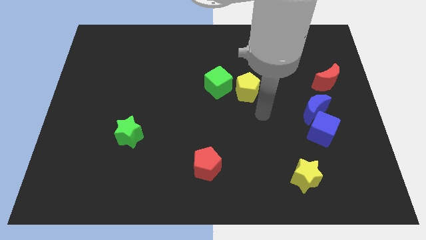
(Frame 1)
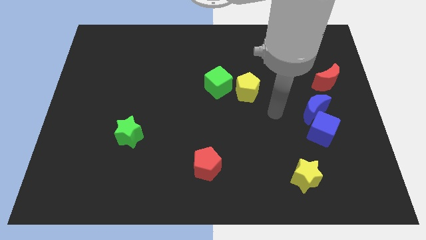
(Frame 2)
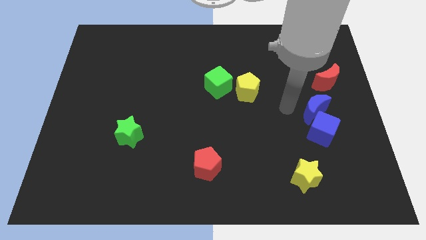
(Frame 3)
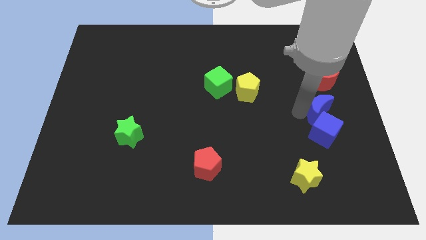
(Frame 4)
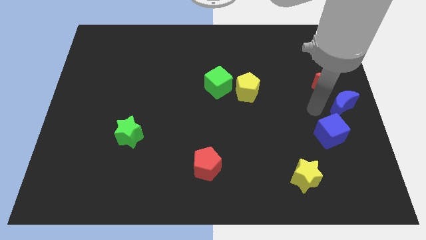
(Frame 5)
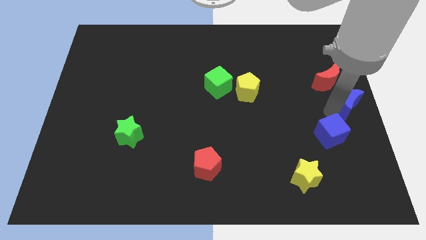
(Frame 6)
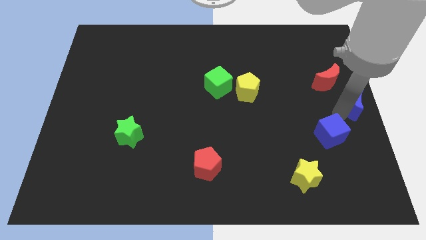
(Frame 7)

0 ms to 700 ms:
pull the blue cube apart from the blue moon

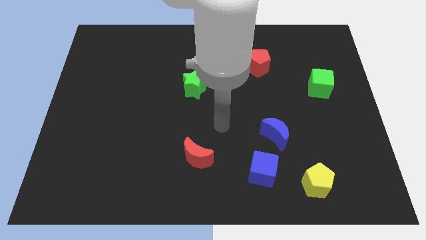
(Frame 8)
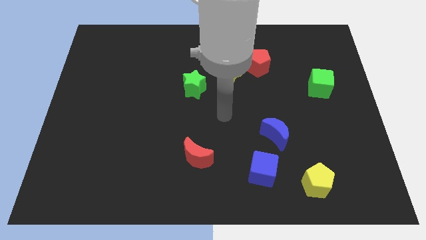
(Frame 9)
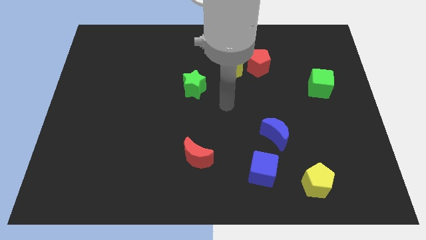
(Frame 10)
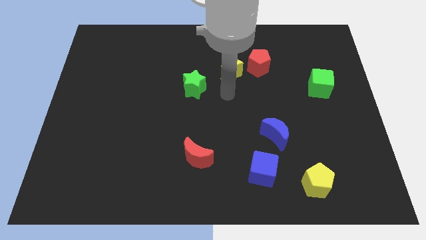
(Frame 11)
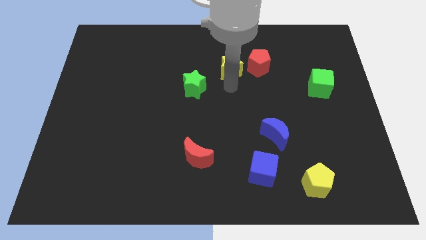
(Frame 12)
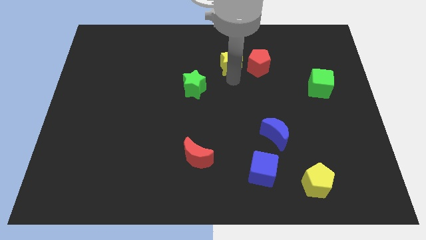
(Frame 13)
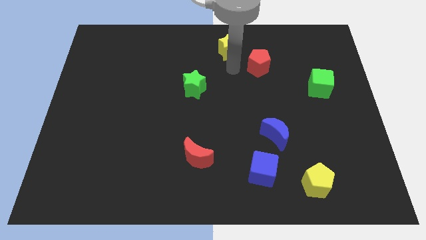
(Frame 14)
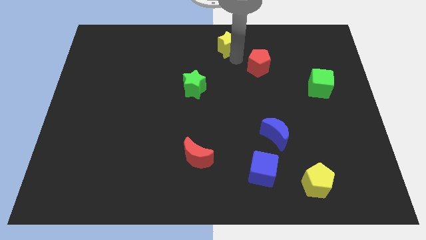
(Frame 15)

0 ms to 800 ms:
move the red pentagon away from the yellow star

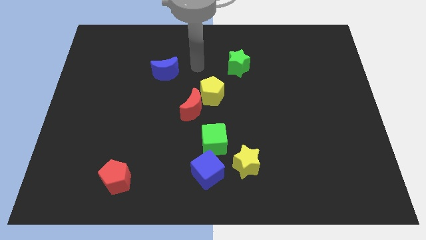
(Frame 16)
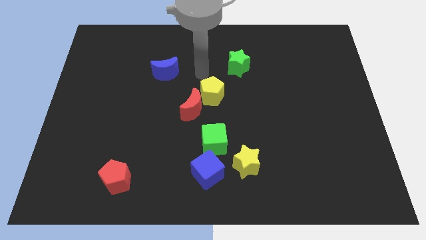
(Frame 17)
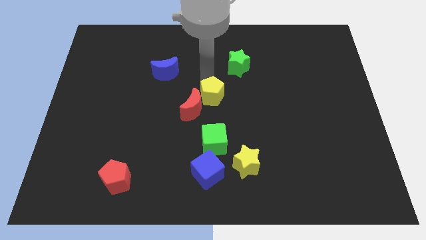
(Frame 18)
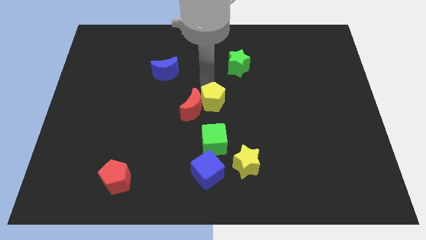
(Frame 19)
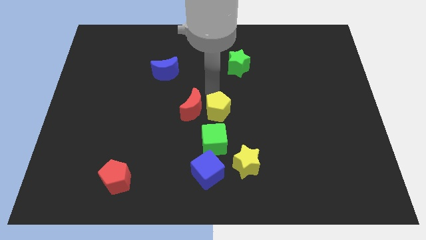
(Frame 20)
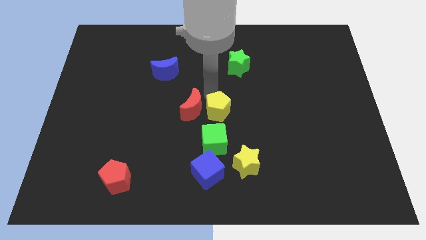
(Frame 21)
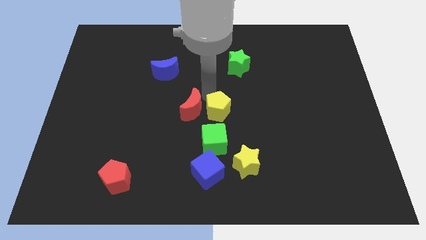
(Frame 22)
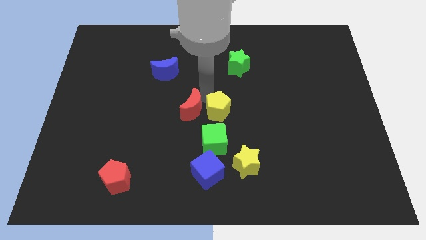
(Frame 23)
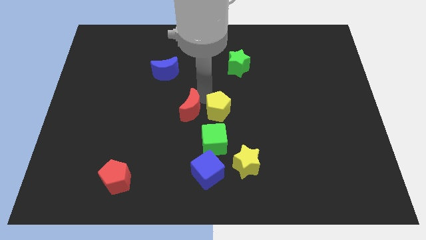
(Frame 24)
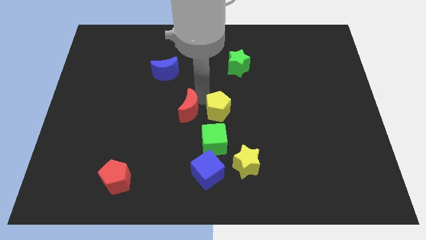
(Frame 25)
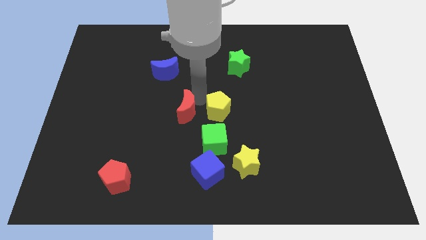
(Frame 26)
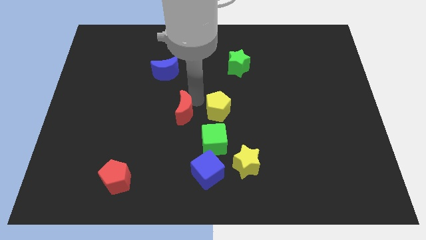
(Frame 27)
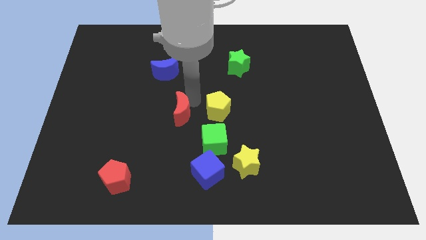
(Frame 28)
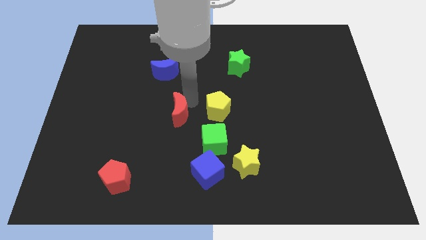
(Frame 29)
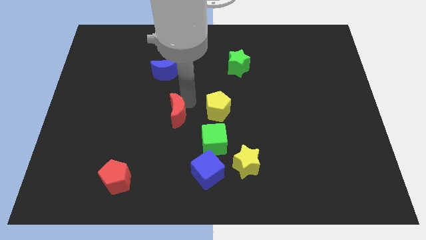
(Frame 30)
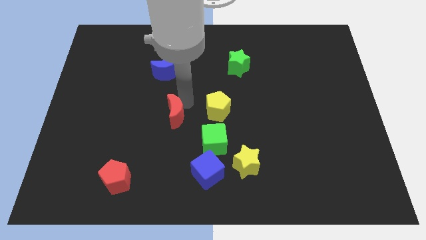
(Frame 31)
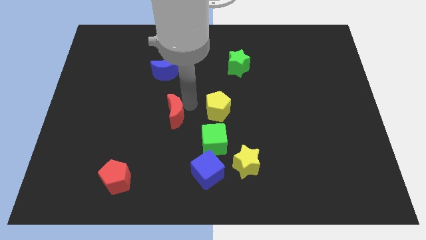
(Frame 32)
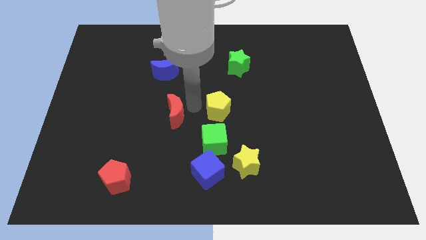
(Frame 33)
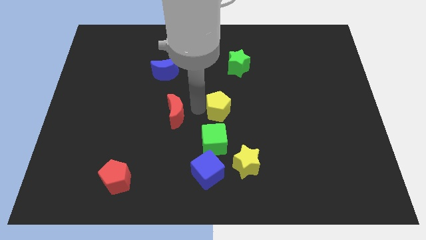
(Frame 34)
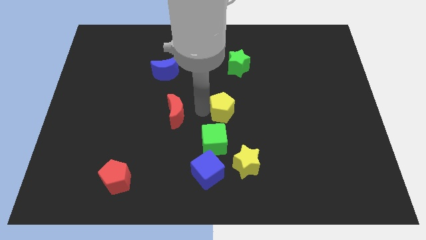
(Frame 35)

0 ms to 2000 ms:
move the red moon away from the yellow pentagon

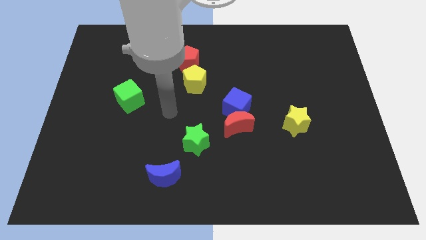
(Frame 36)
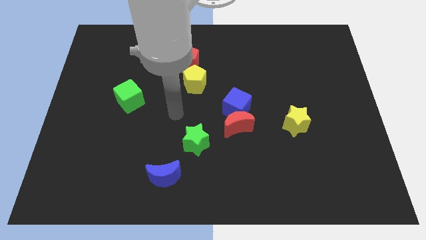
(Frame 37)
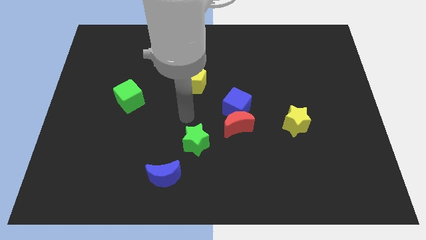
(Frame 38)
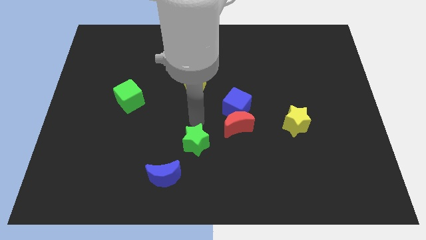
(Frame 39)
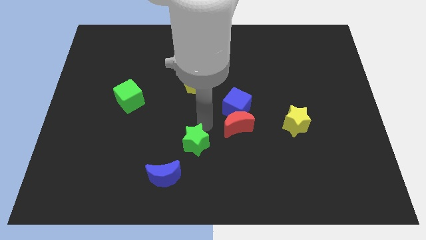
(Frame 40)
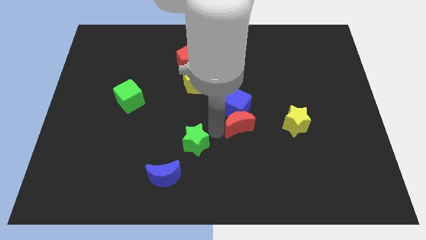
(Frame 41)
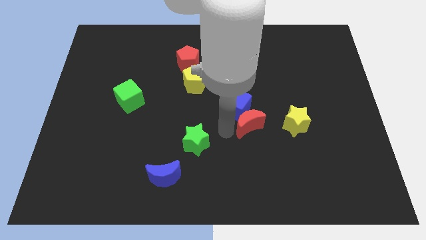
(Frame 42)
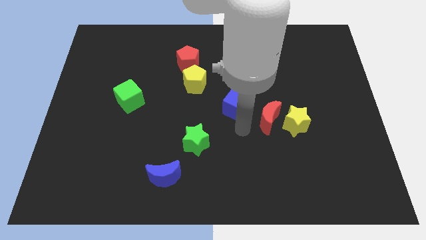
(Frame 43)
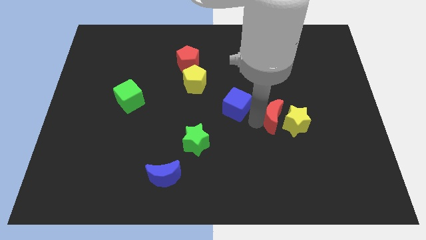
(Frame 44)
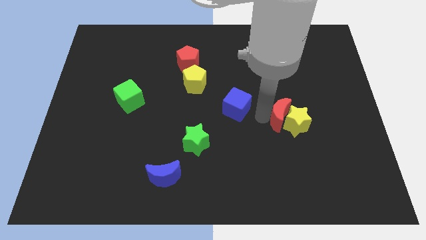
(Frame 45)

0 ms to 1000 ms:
pull the blue cube apart from the red moon

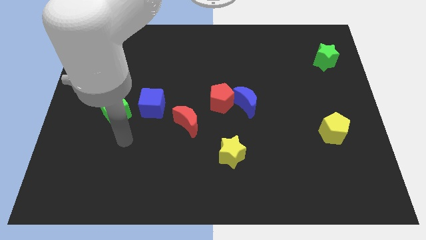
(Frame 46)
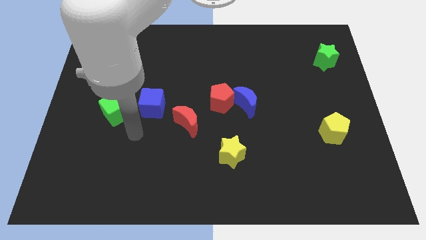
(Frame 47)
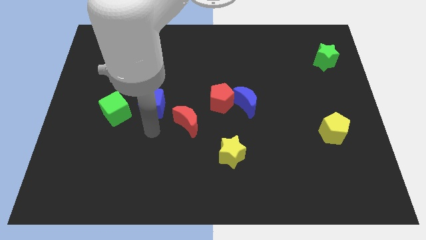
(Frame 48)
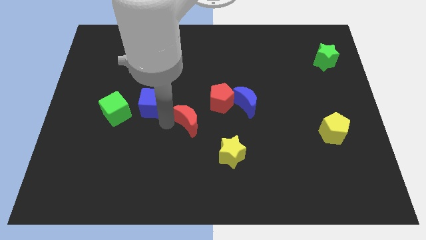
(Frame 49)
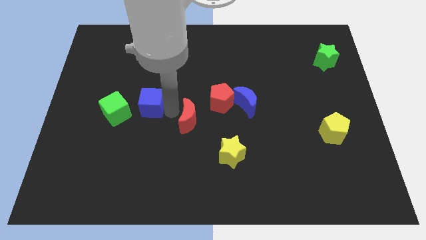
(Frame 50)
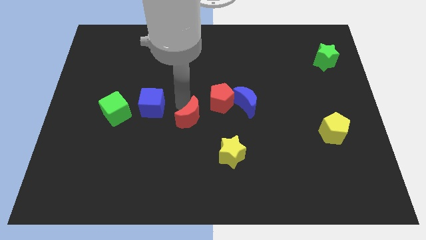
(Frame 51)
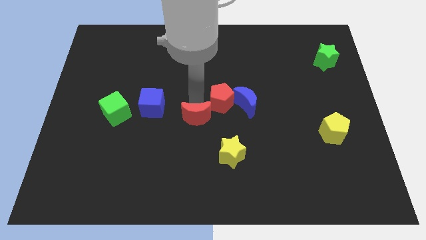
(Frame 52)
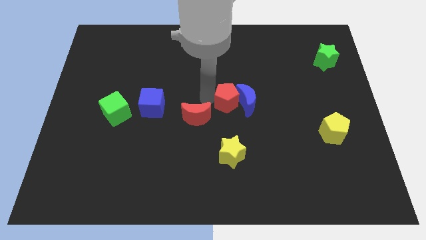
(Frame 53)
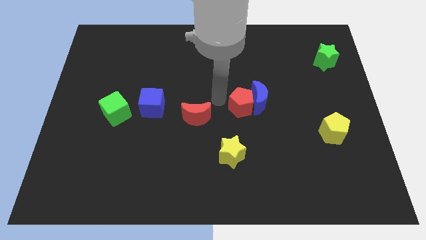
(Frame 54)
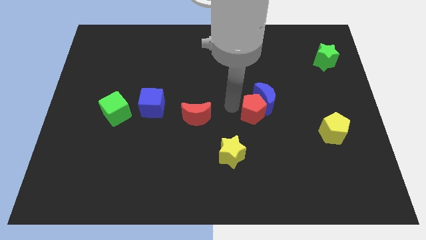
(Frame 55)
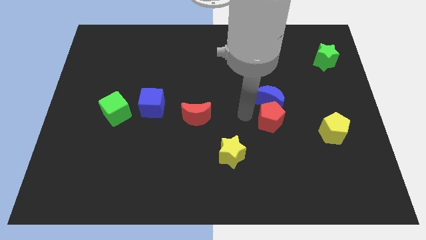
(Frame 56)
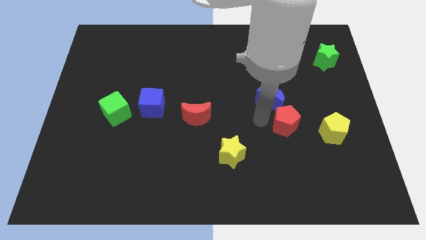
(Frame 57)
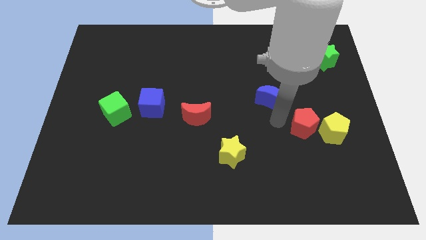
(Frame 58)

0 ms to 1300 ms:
pull the blue moon apart from the red pentagon

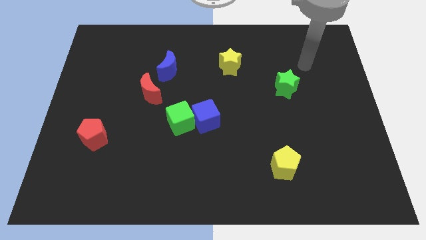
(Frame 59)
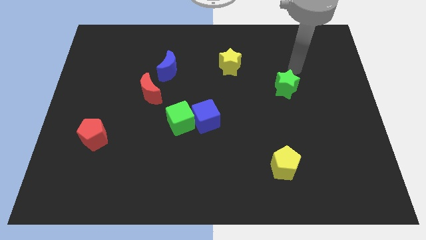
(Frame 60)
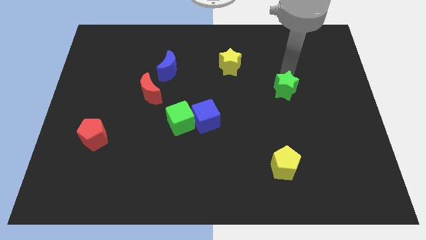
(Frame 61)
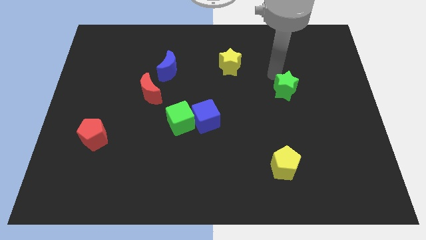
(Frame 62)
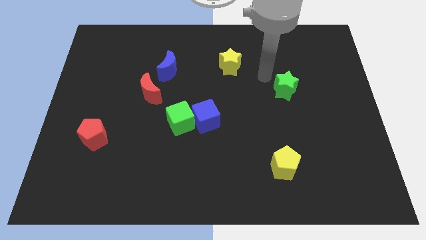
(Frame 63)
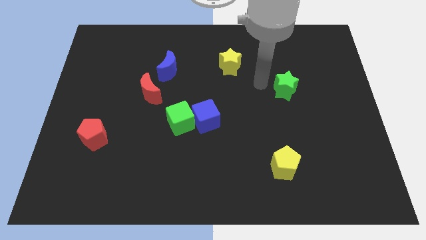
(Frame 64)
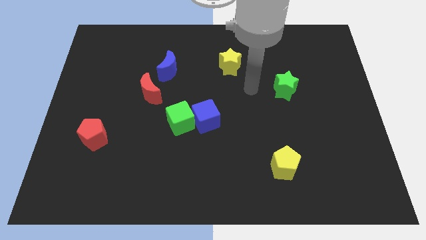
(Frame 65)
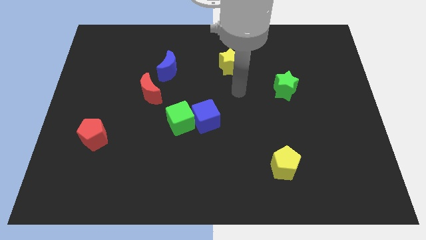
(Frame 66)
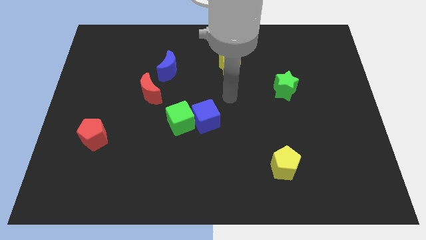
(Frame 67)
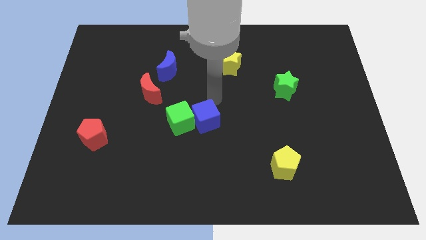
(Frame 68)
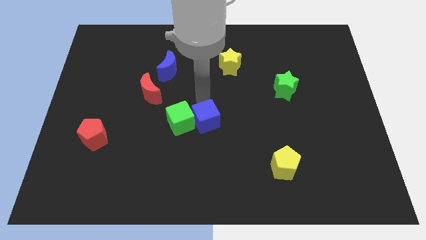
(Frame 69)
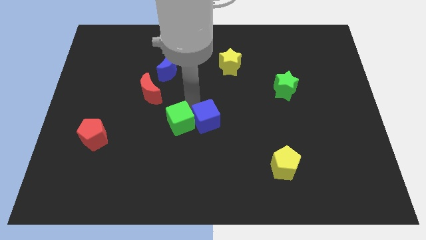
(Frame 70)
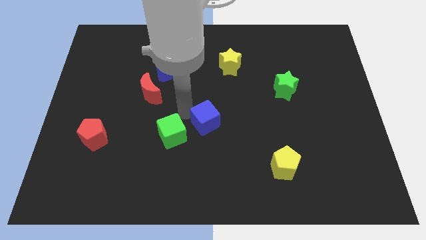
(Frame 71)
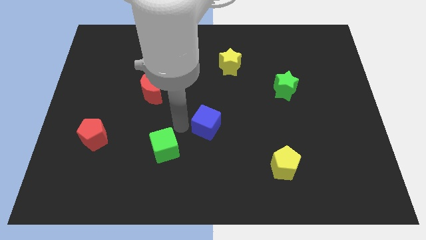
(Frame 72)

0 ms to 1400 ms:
move the blue cube away from the green cube

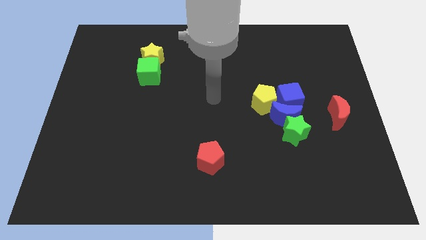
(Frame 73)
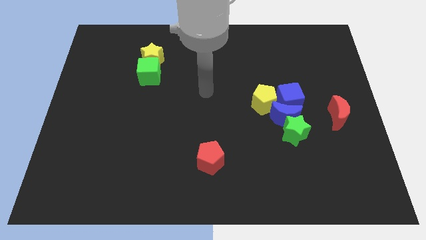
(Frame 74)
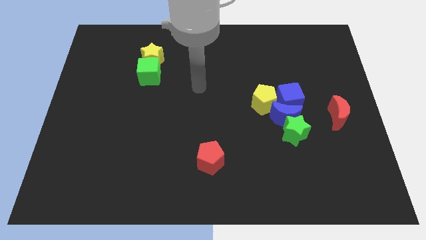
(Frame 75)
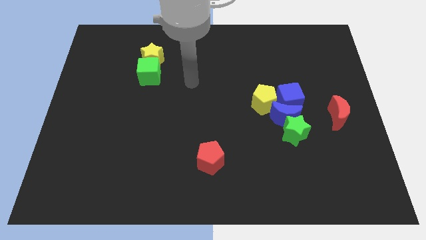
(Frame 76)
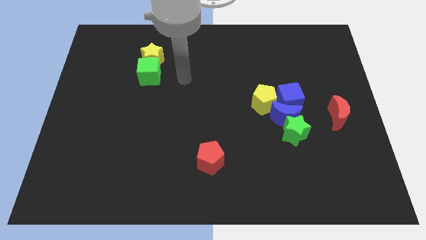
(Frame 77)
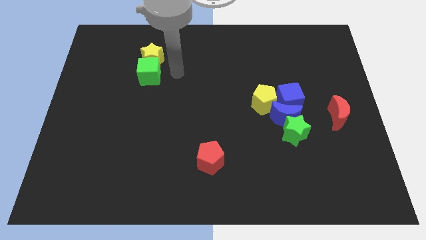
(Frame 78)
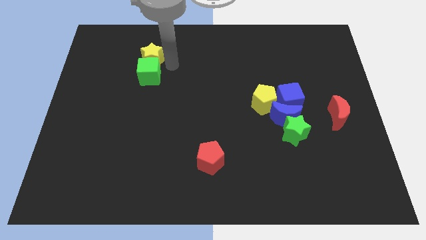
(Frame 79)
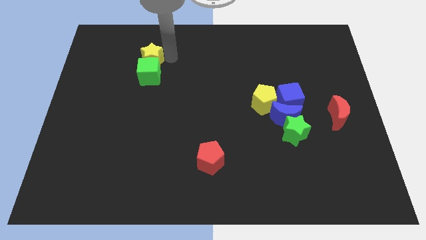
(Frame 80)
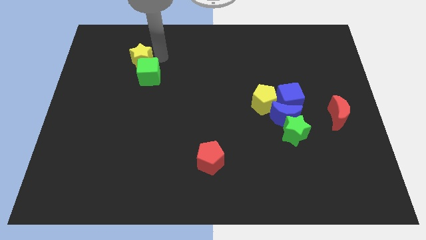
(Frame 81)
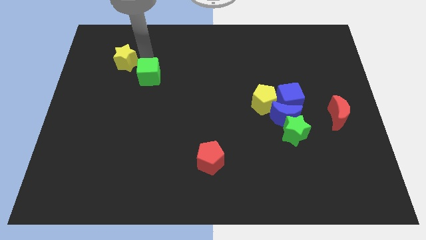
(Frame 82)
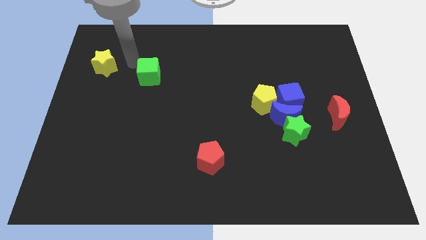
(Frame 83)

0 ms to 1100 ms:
pull the green cube apart from the yellow star

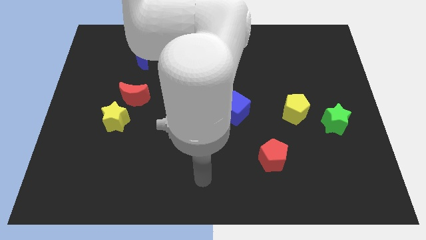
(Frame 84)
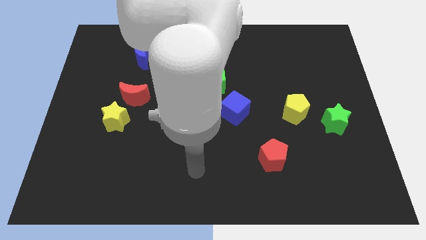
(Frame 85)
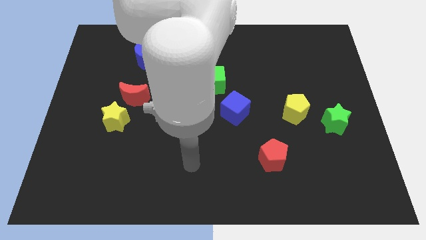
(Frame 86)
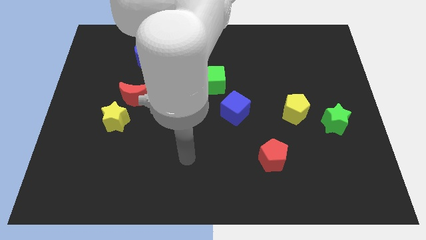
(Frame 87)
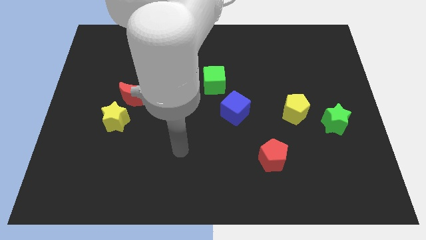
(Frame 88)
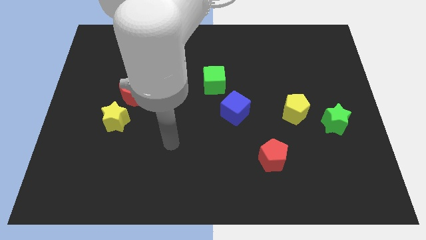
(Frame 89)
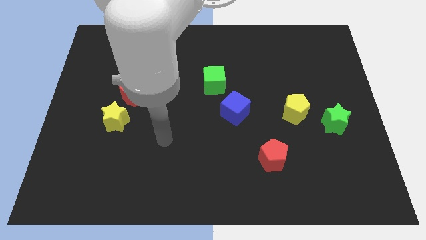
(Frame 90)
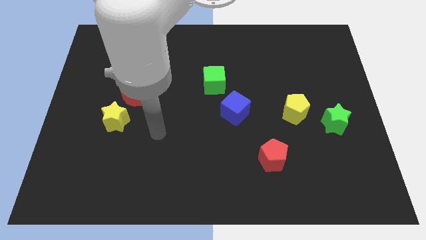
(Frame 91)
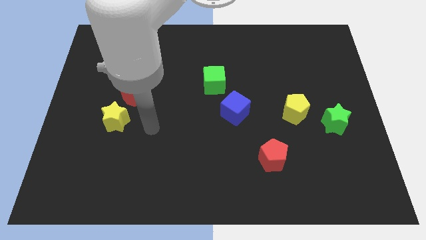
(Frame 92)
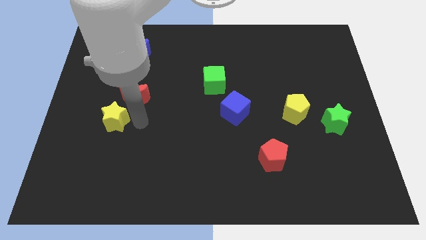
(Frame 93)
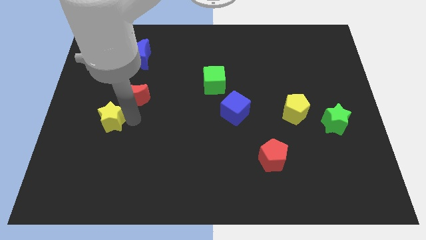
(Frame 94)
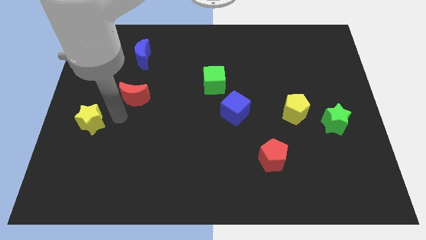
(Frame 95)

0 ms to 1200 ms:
separate the red moon from the yellow star
